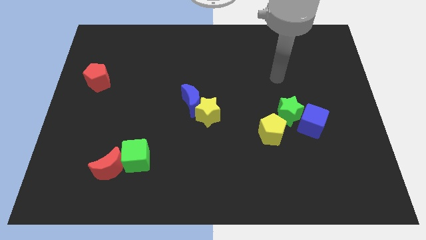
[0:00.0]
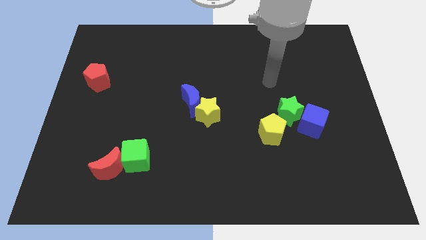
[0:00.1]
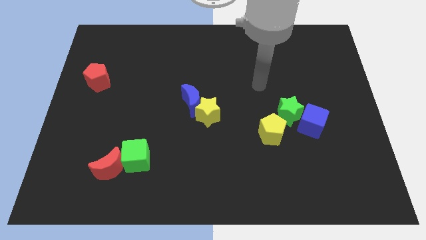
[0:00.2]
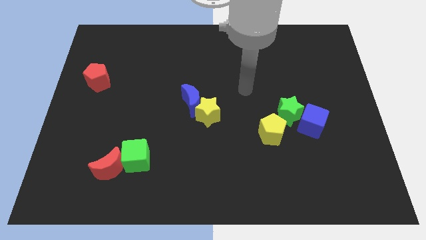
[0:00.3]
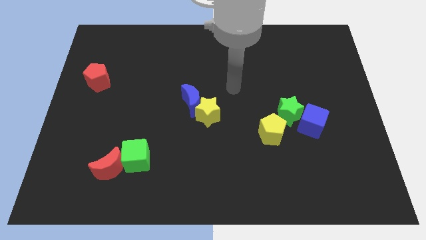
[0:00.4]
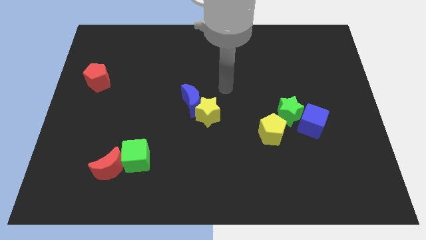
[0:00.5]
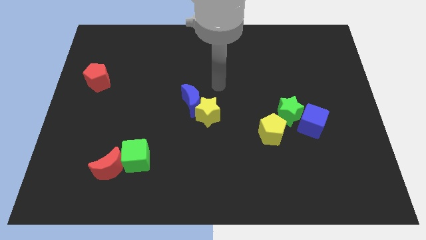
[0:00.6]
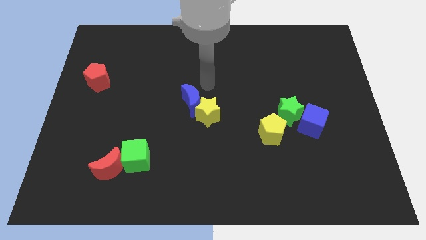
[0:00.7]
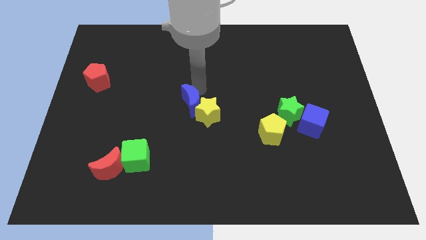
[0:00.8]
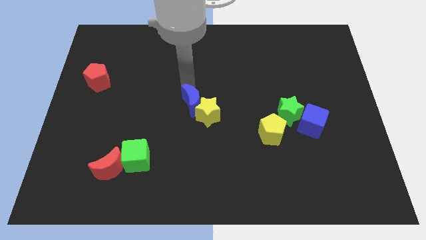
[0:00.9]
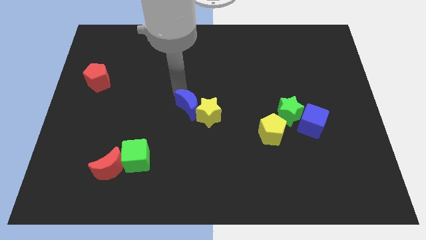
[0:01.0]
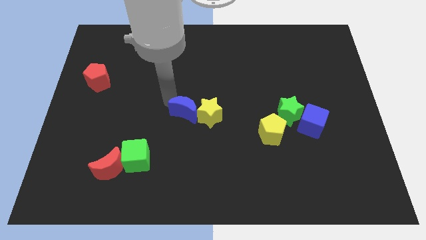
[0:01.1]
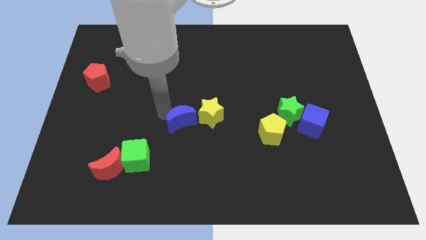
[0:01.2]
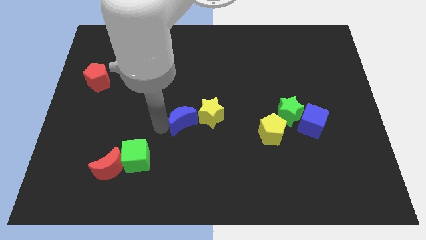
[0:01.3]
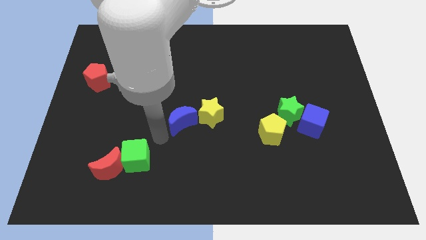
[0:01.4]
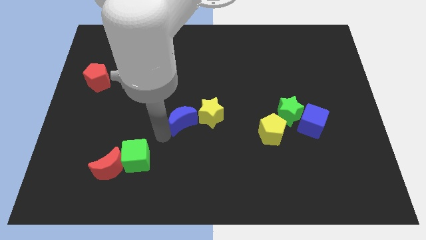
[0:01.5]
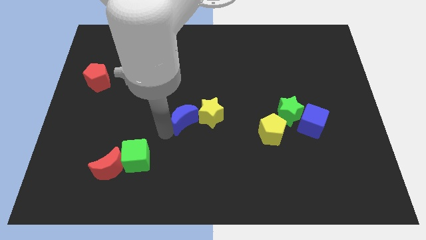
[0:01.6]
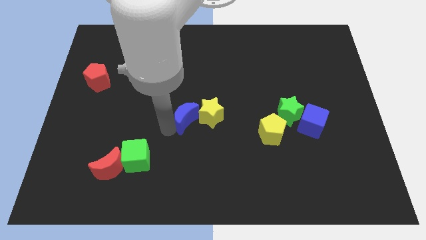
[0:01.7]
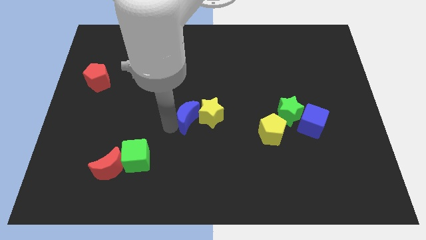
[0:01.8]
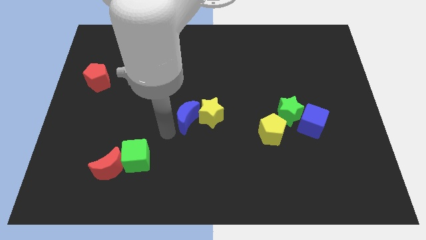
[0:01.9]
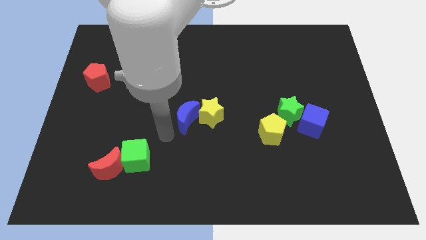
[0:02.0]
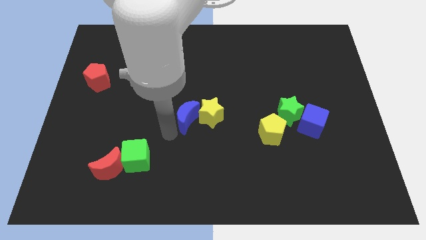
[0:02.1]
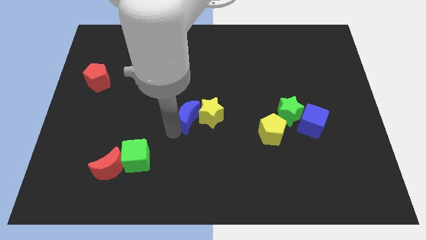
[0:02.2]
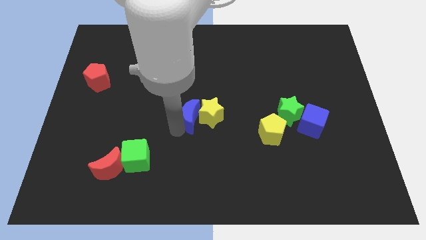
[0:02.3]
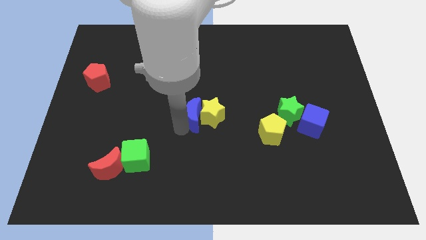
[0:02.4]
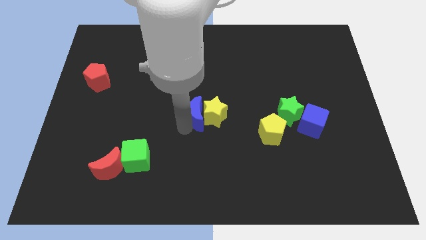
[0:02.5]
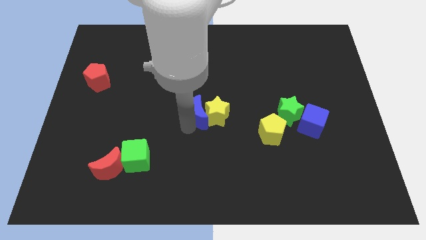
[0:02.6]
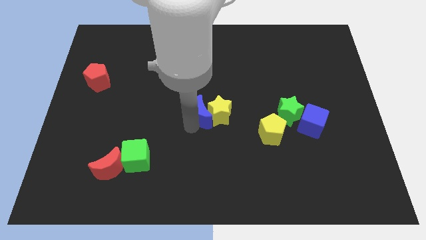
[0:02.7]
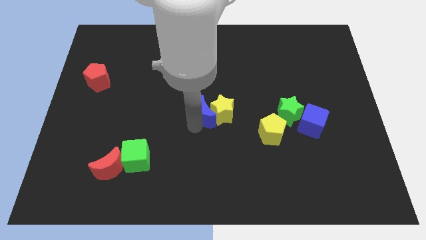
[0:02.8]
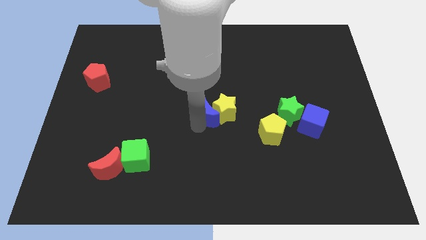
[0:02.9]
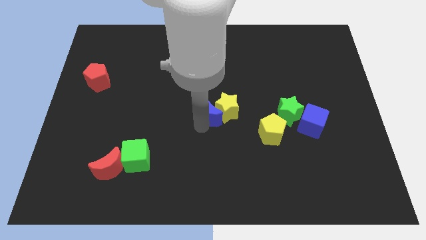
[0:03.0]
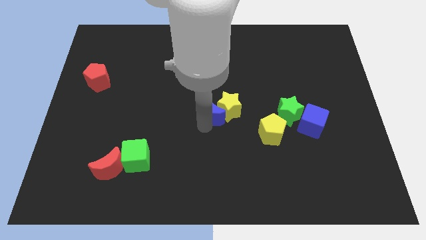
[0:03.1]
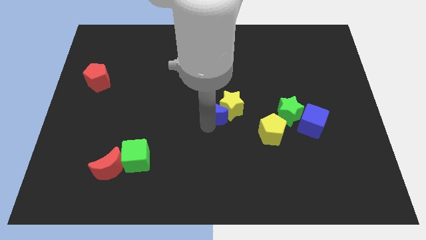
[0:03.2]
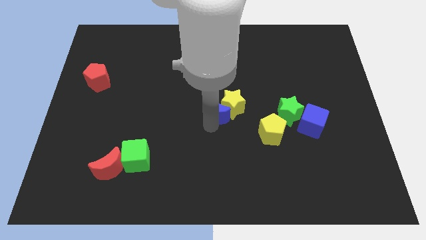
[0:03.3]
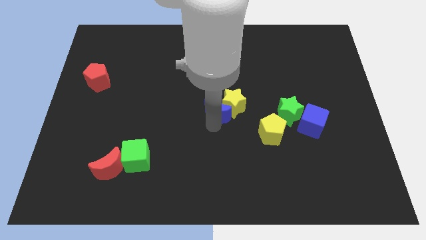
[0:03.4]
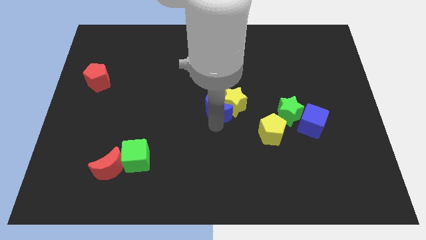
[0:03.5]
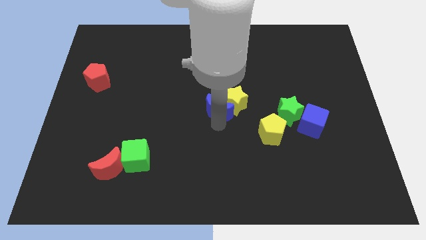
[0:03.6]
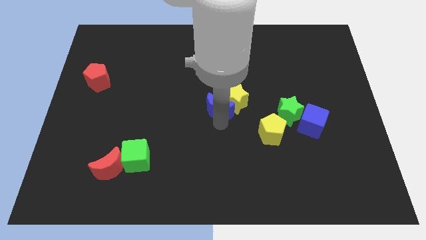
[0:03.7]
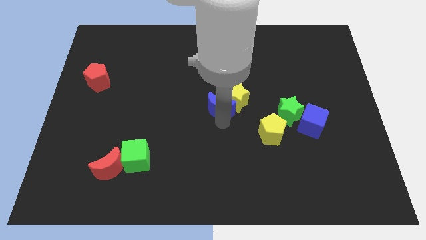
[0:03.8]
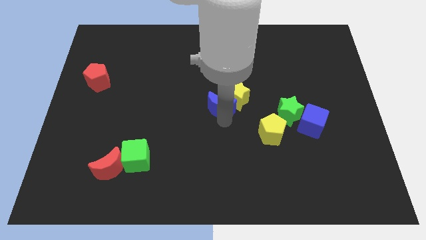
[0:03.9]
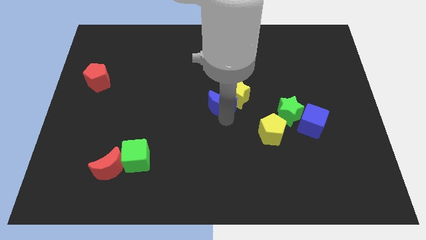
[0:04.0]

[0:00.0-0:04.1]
push the blue moon a little bit right

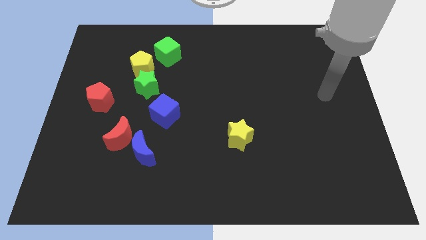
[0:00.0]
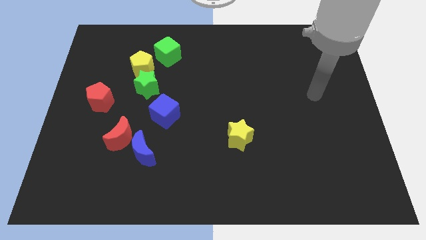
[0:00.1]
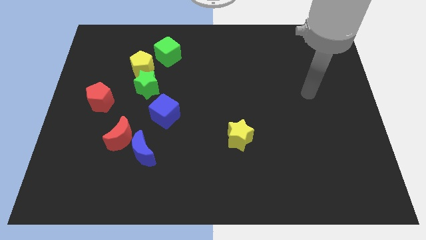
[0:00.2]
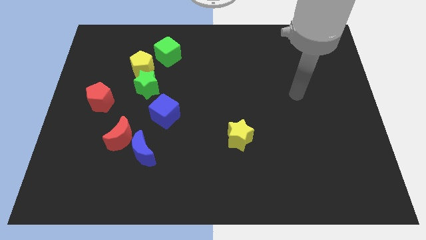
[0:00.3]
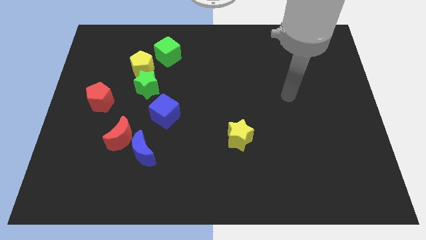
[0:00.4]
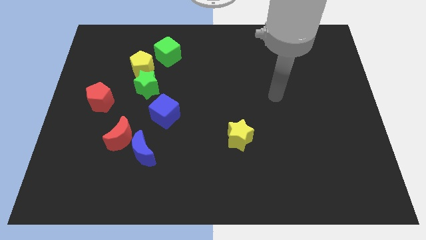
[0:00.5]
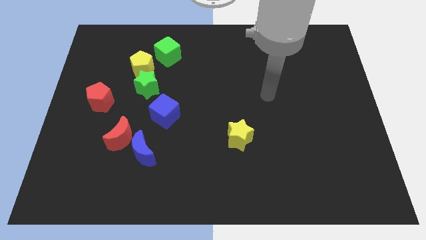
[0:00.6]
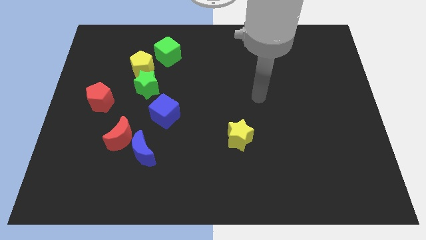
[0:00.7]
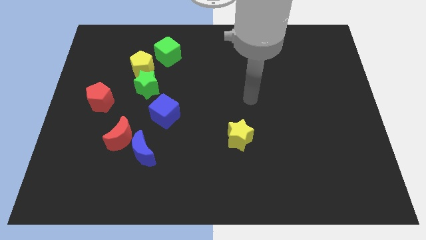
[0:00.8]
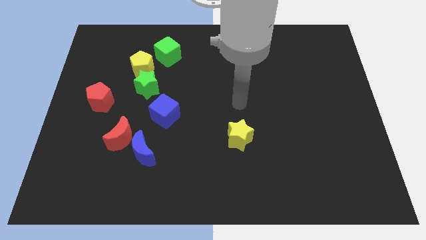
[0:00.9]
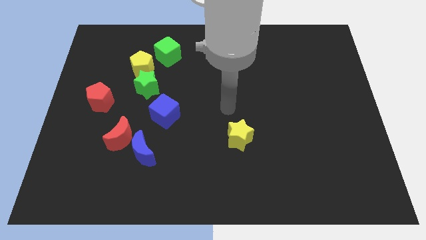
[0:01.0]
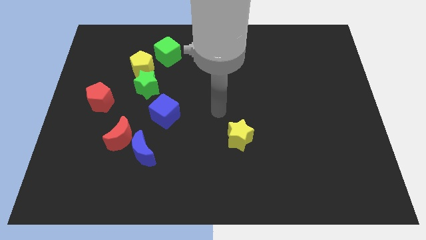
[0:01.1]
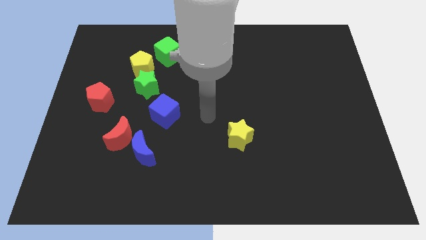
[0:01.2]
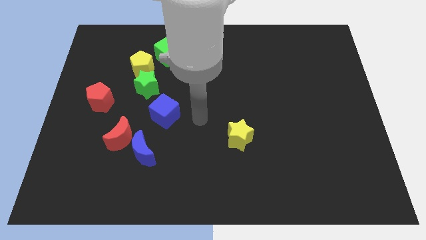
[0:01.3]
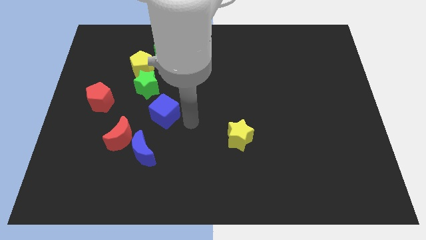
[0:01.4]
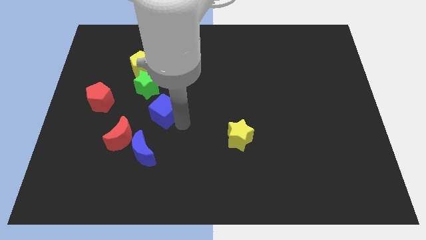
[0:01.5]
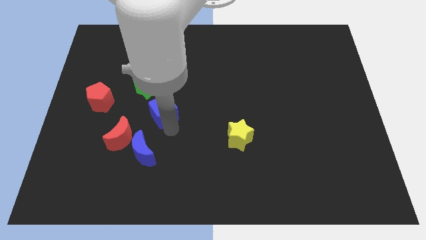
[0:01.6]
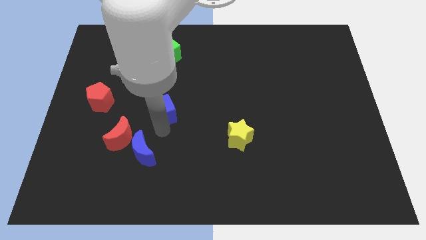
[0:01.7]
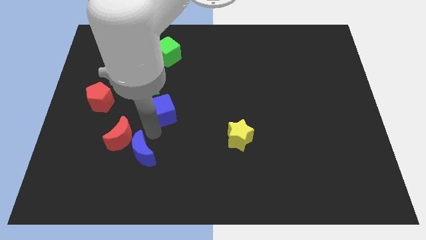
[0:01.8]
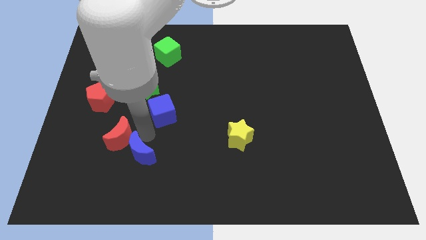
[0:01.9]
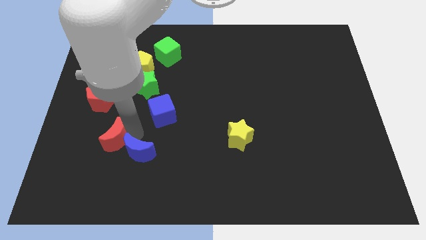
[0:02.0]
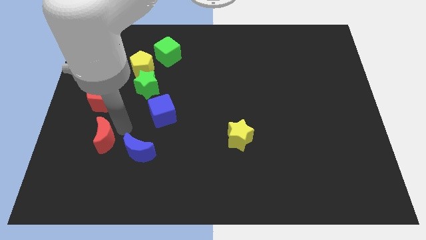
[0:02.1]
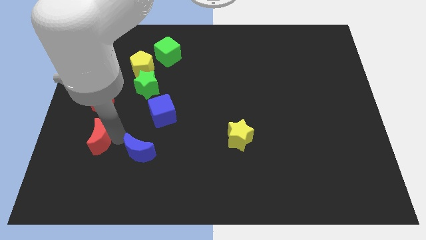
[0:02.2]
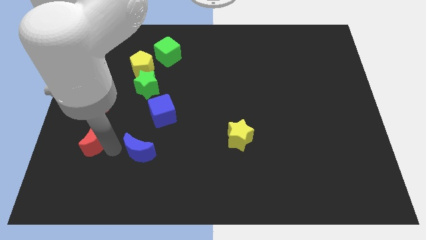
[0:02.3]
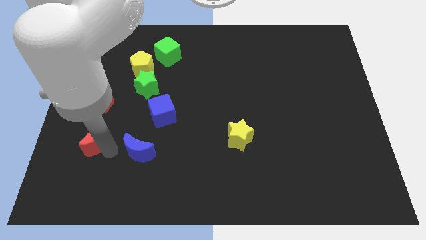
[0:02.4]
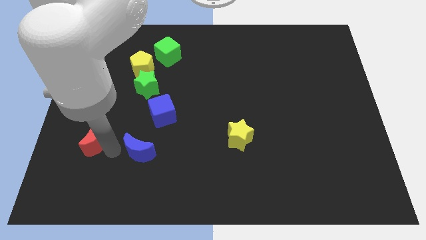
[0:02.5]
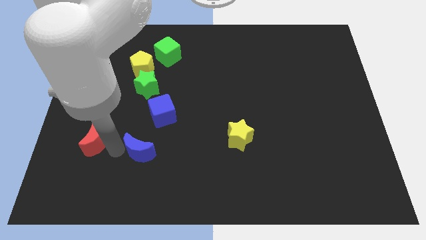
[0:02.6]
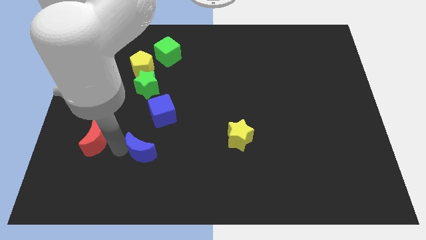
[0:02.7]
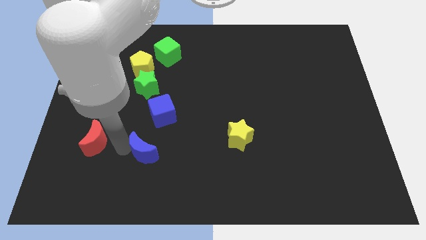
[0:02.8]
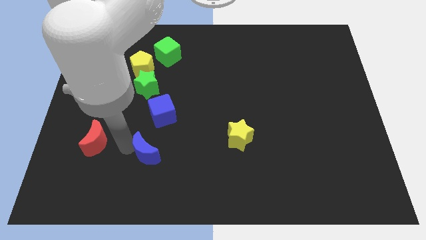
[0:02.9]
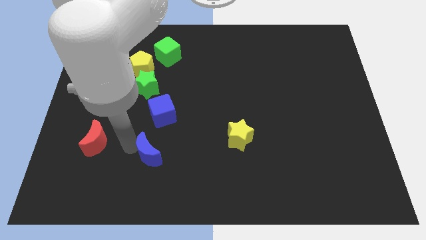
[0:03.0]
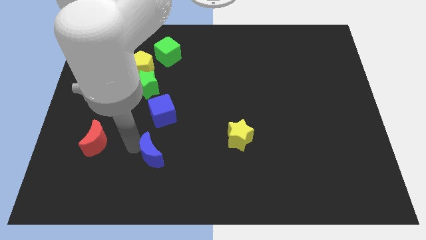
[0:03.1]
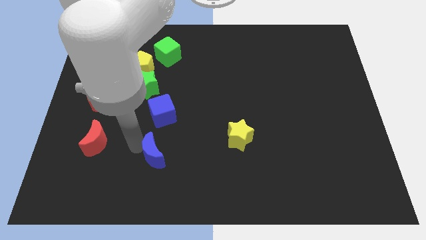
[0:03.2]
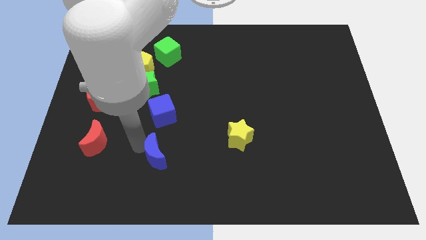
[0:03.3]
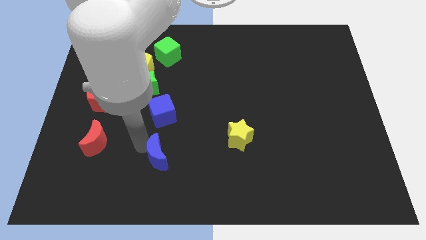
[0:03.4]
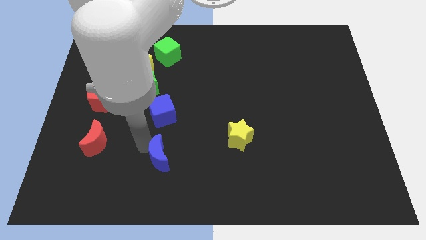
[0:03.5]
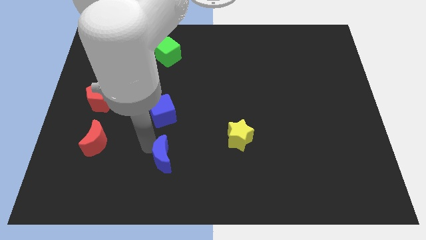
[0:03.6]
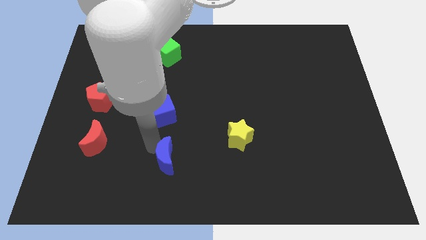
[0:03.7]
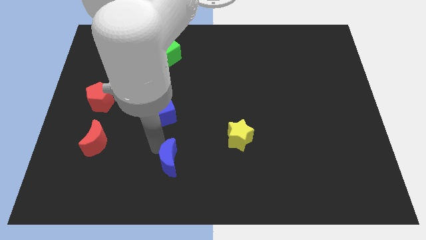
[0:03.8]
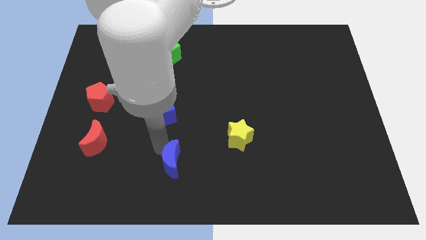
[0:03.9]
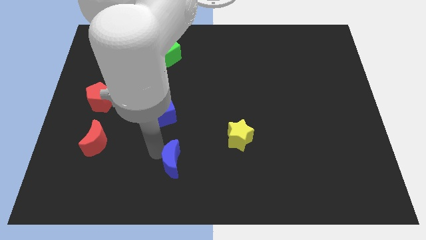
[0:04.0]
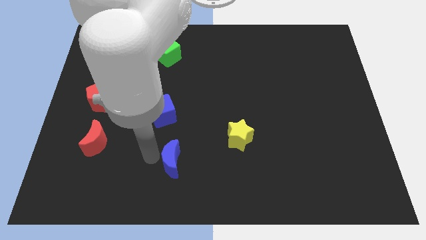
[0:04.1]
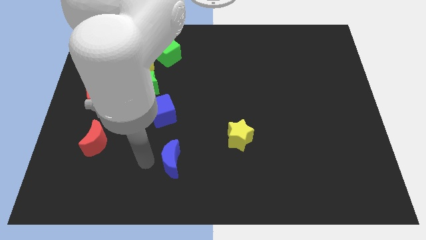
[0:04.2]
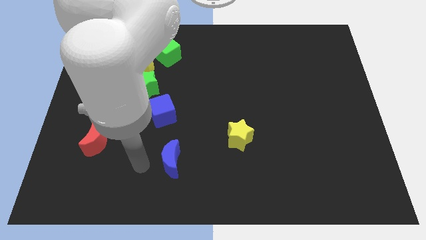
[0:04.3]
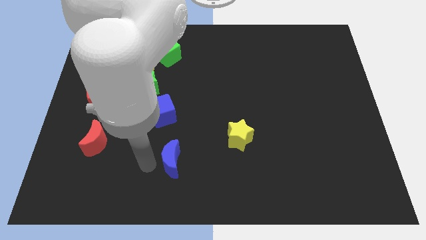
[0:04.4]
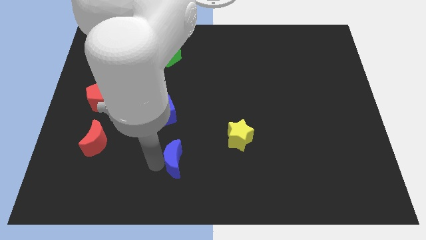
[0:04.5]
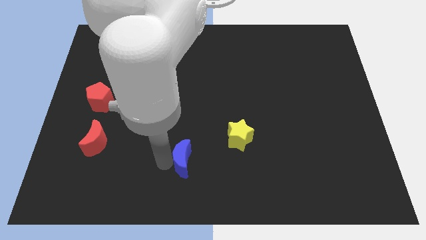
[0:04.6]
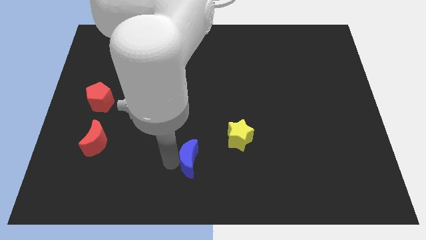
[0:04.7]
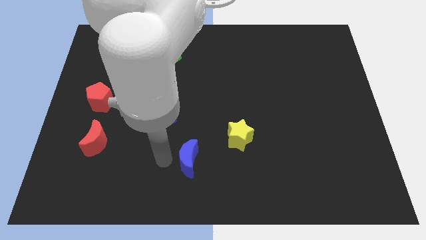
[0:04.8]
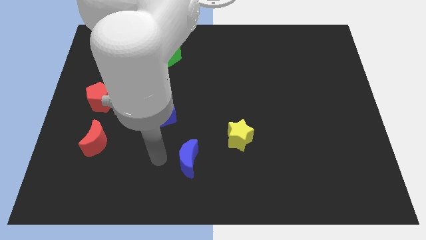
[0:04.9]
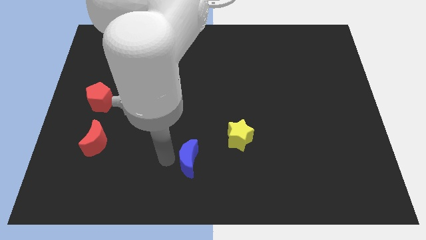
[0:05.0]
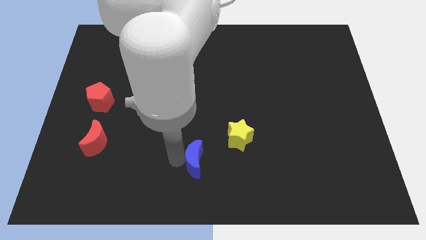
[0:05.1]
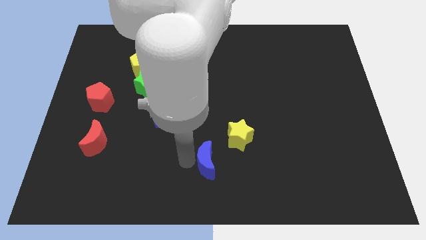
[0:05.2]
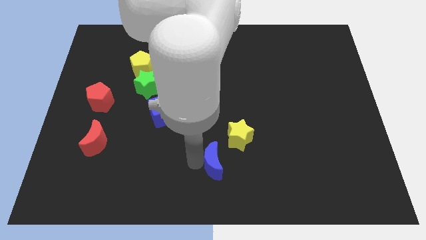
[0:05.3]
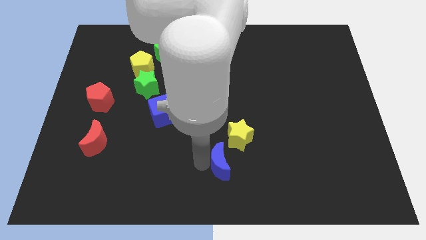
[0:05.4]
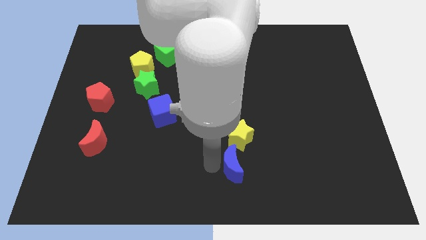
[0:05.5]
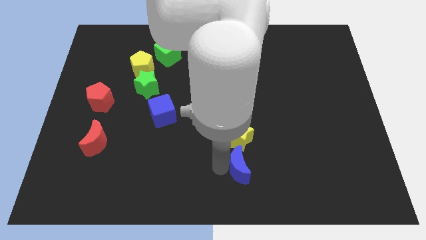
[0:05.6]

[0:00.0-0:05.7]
slide the blue moon right
